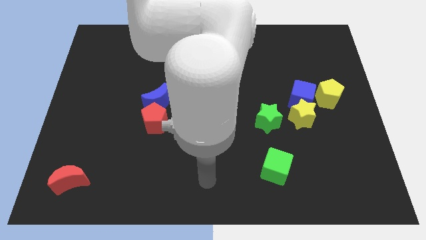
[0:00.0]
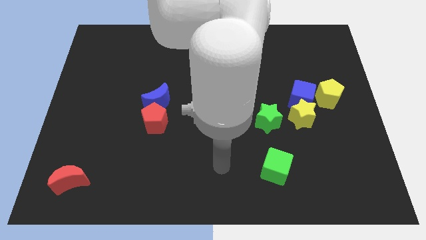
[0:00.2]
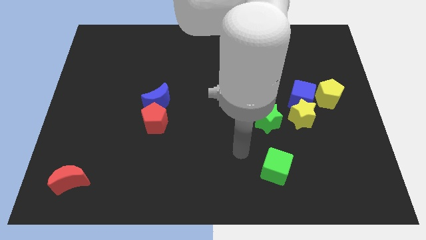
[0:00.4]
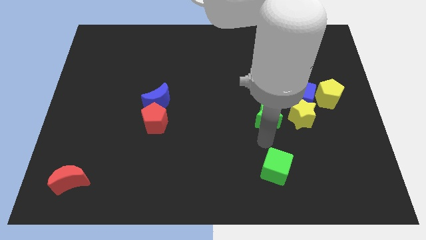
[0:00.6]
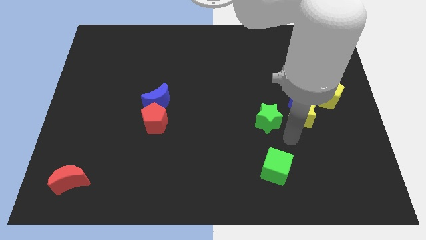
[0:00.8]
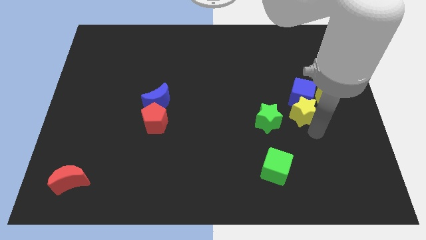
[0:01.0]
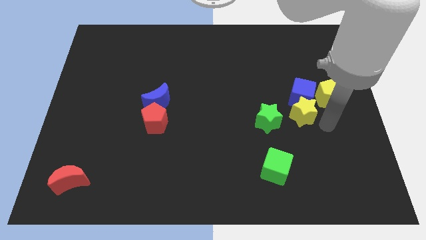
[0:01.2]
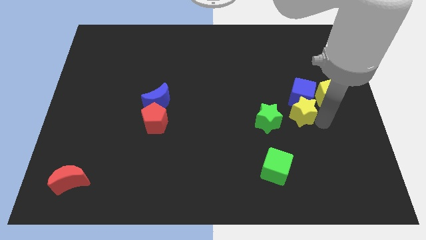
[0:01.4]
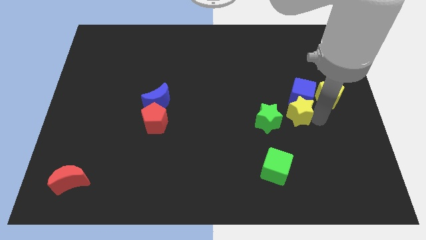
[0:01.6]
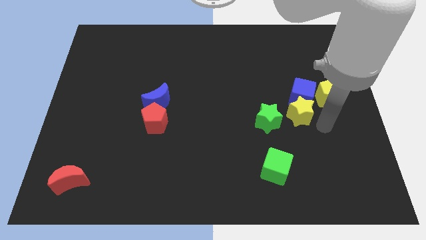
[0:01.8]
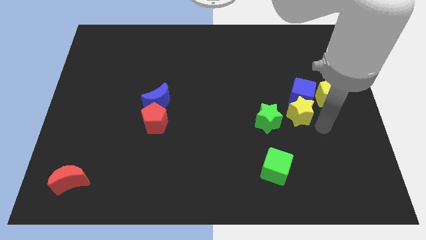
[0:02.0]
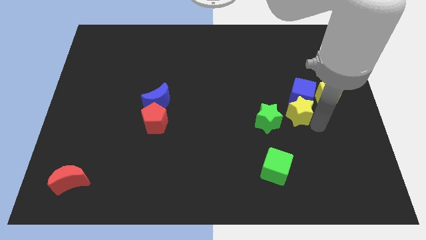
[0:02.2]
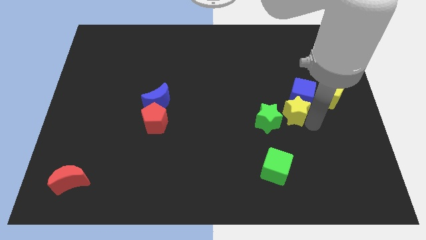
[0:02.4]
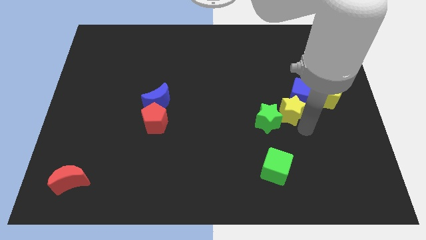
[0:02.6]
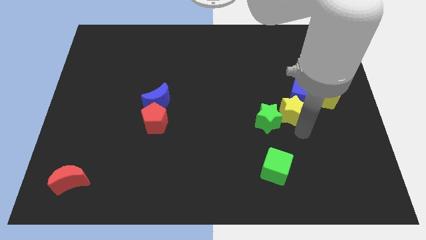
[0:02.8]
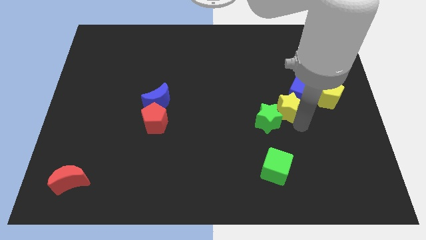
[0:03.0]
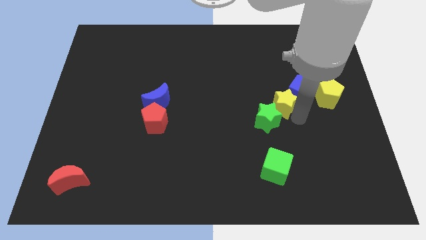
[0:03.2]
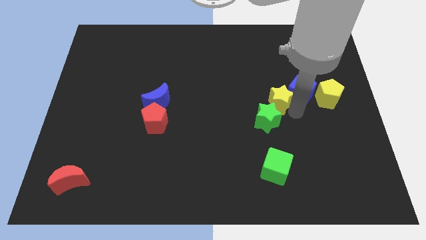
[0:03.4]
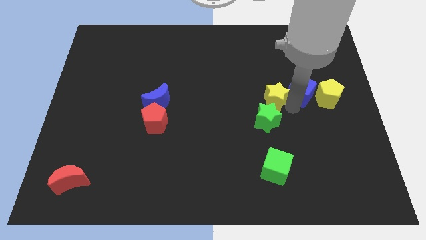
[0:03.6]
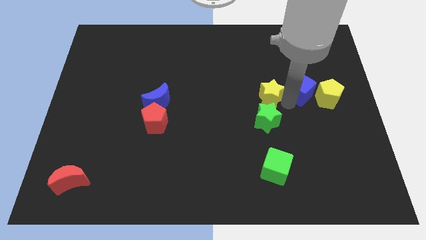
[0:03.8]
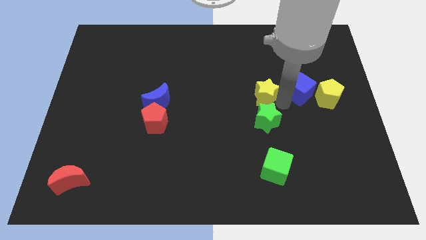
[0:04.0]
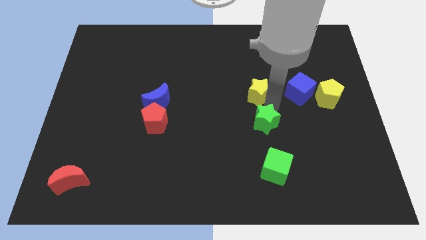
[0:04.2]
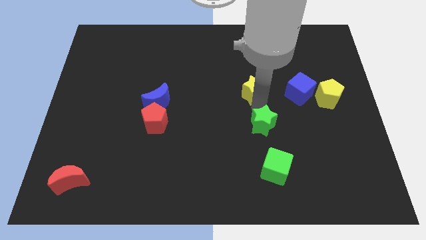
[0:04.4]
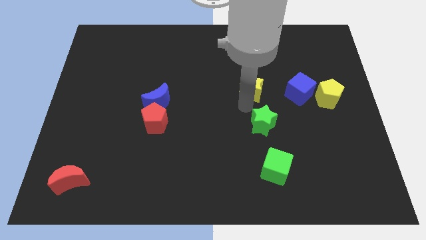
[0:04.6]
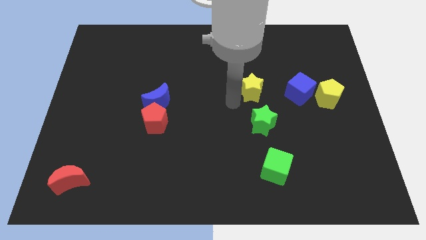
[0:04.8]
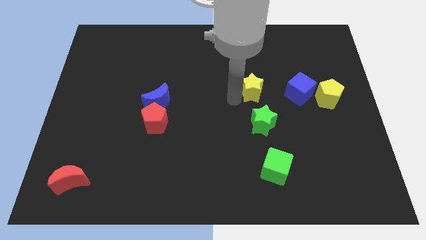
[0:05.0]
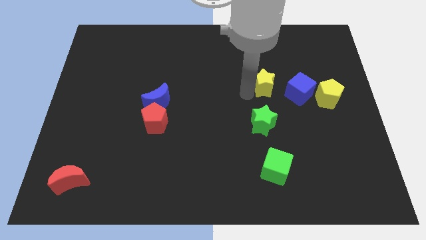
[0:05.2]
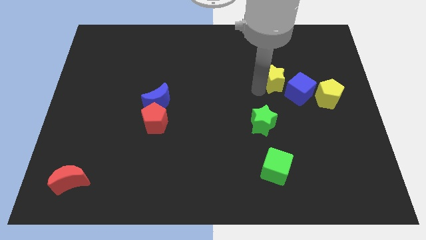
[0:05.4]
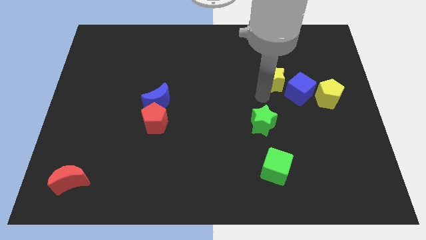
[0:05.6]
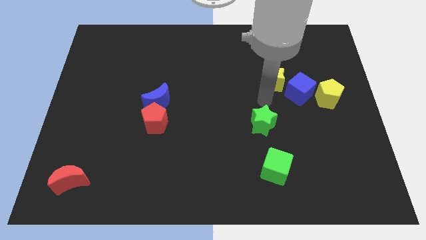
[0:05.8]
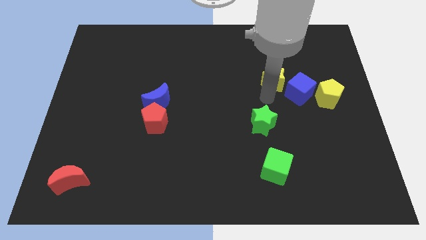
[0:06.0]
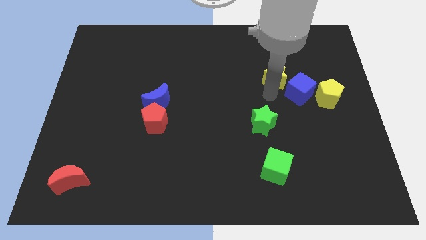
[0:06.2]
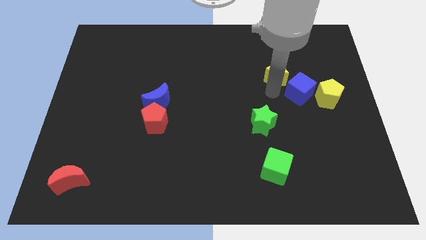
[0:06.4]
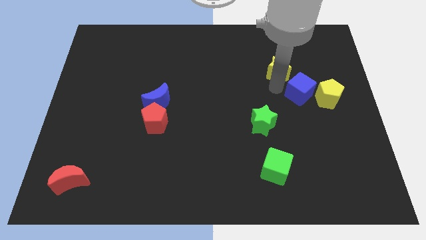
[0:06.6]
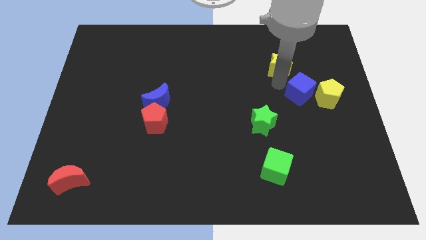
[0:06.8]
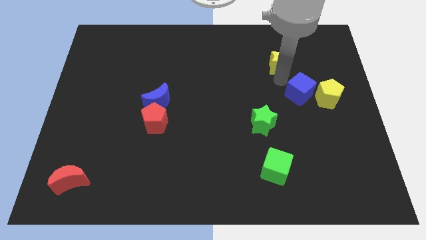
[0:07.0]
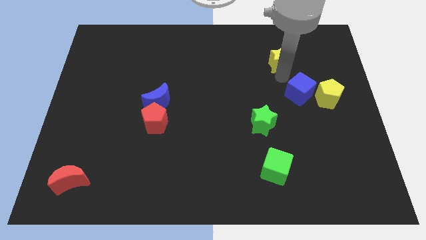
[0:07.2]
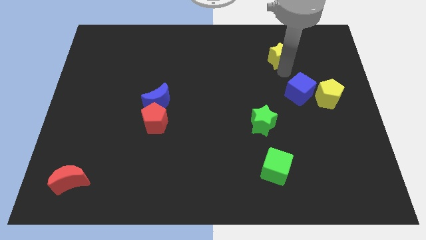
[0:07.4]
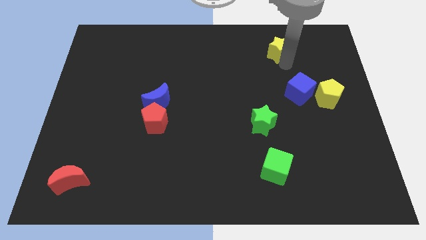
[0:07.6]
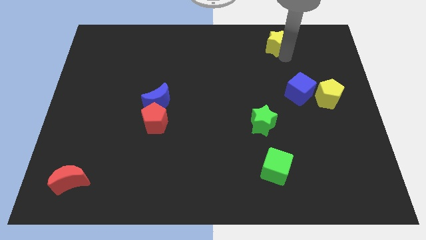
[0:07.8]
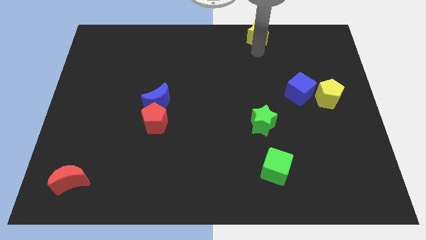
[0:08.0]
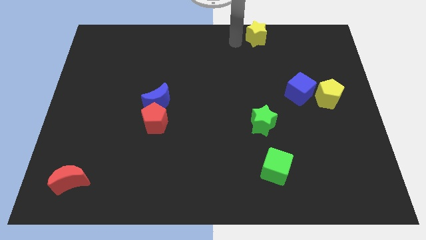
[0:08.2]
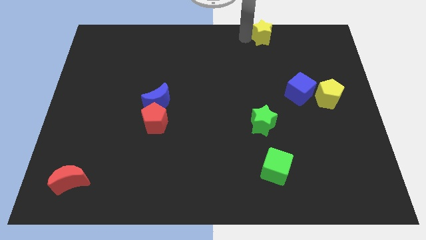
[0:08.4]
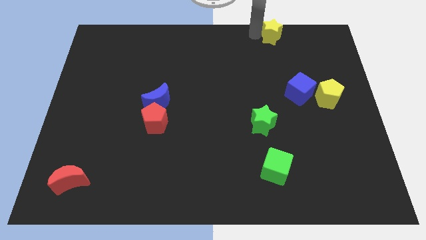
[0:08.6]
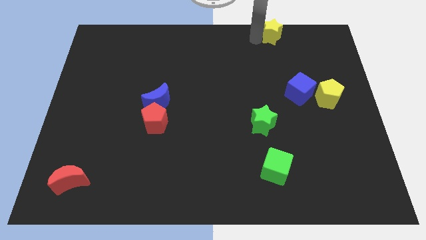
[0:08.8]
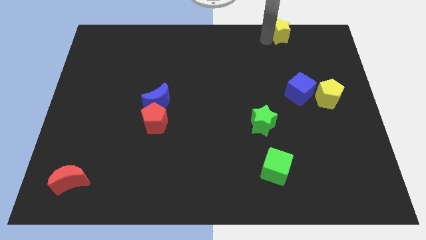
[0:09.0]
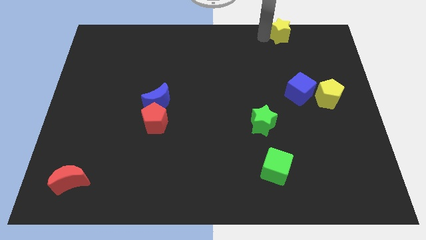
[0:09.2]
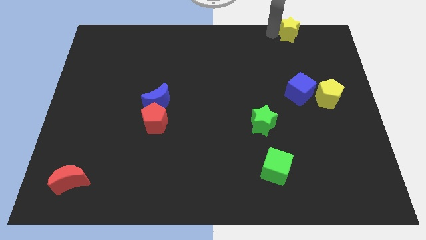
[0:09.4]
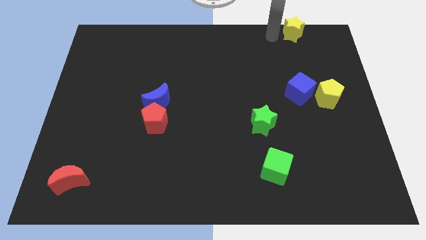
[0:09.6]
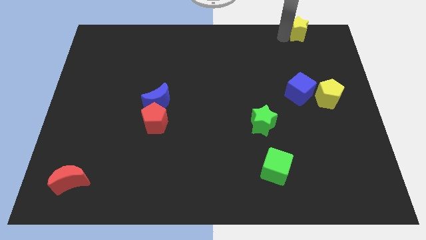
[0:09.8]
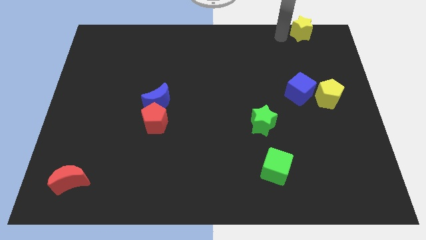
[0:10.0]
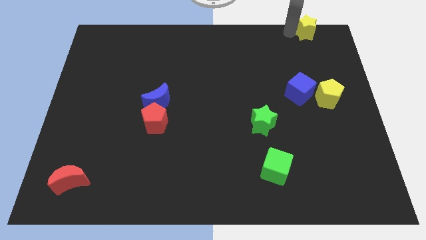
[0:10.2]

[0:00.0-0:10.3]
put the yellow star to the top right corner

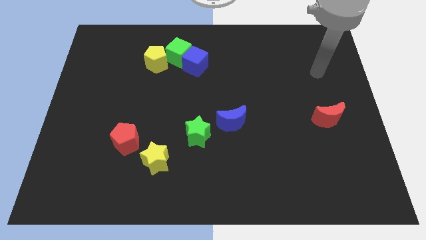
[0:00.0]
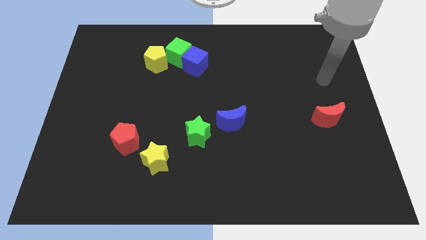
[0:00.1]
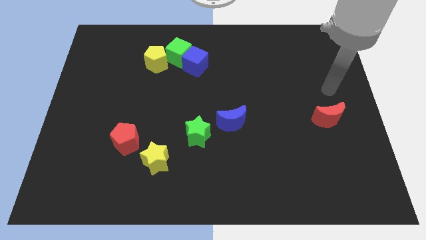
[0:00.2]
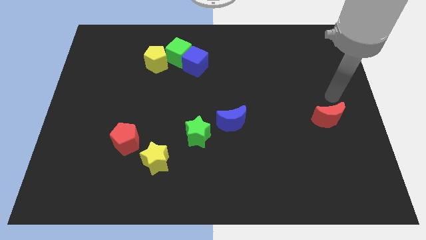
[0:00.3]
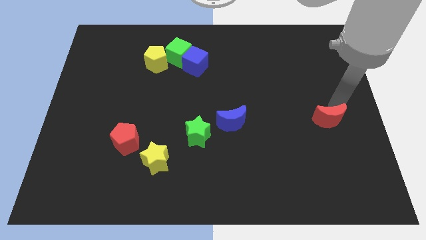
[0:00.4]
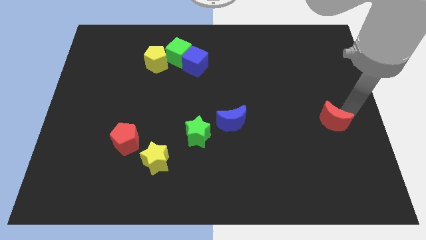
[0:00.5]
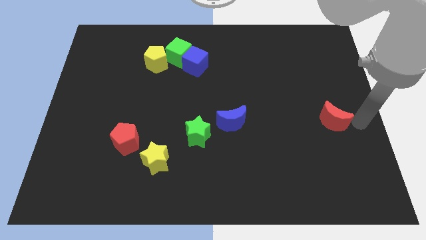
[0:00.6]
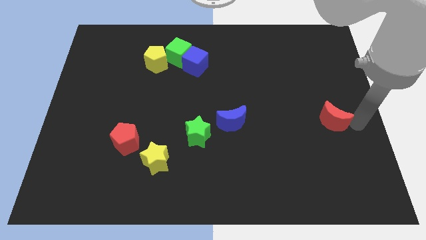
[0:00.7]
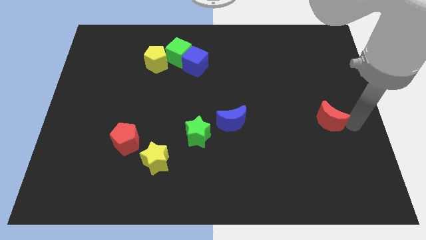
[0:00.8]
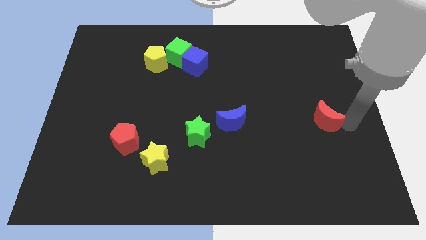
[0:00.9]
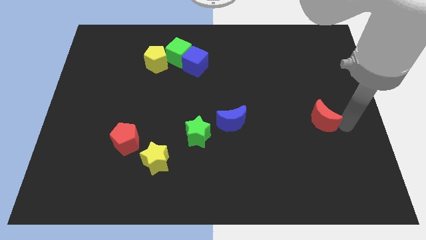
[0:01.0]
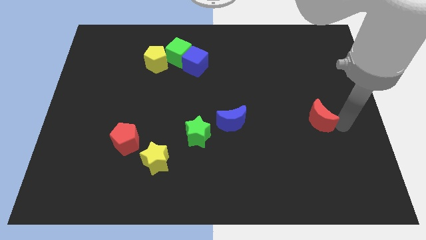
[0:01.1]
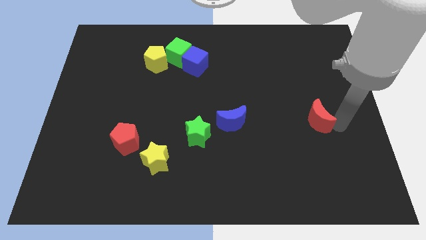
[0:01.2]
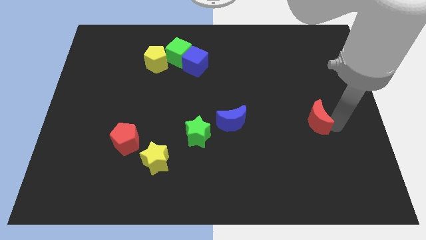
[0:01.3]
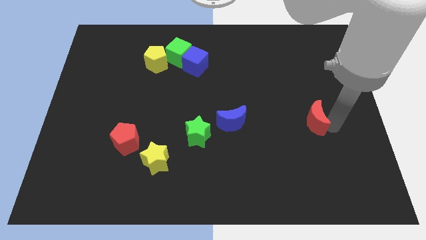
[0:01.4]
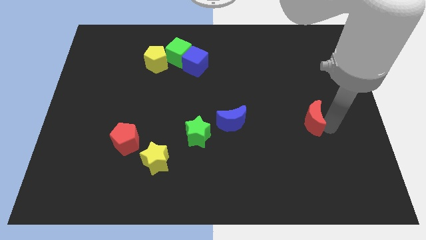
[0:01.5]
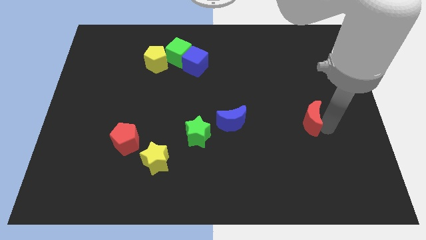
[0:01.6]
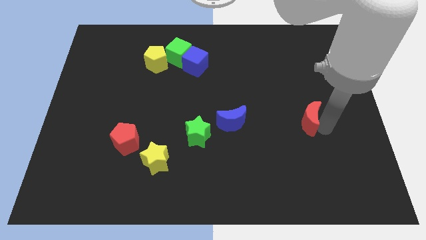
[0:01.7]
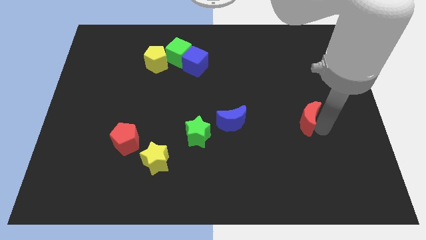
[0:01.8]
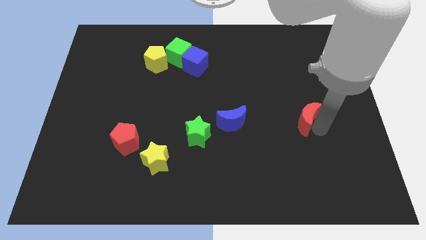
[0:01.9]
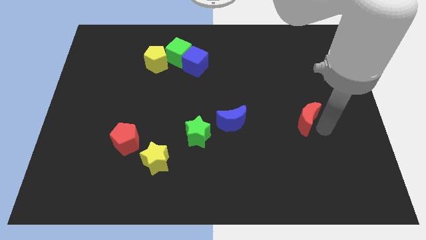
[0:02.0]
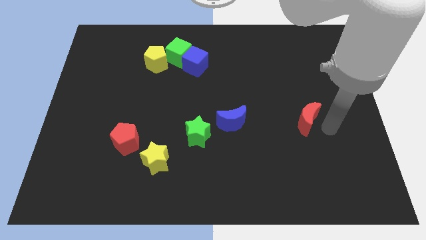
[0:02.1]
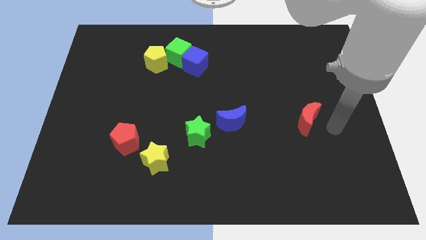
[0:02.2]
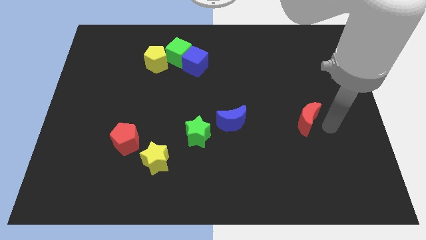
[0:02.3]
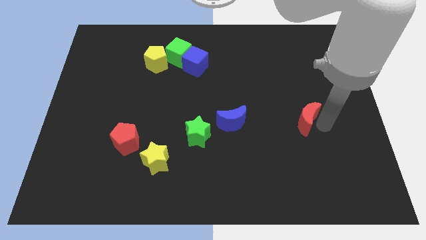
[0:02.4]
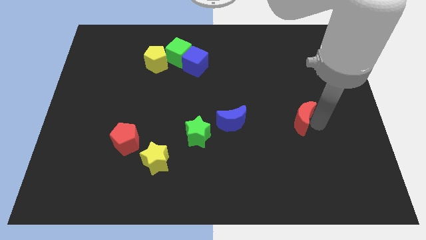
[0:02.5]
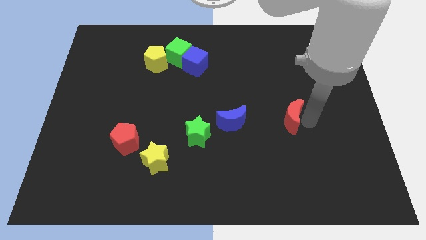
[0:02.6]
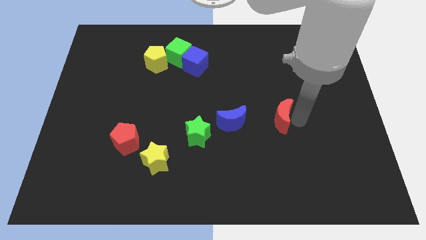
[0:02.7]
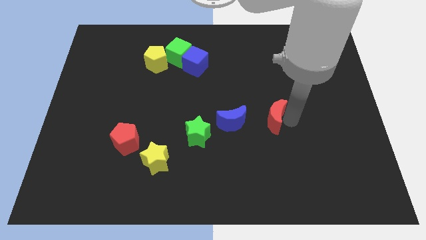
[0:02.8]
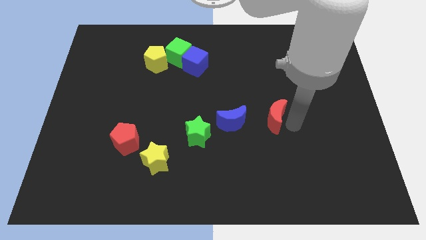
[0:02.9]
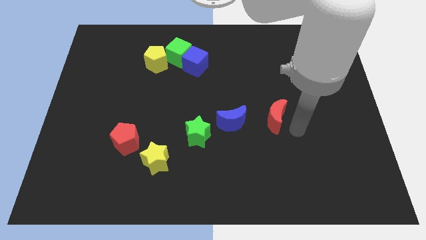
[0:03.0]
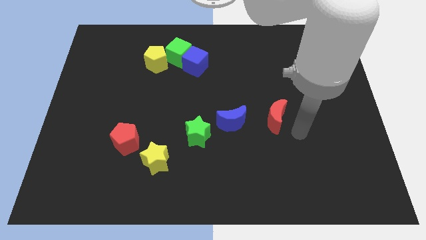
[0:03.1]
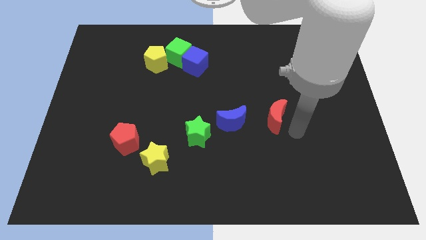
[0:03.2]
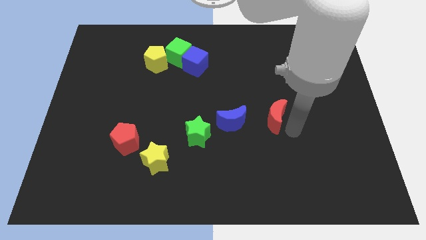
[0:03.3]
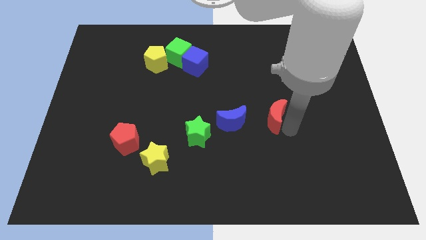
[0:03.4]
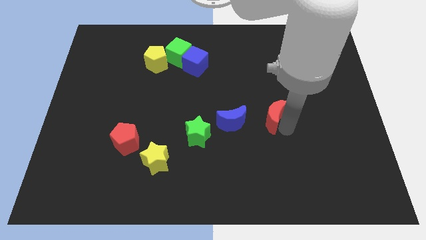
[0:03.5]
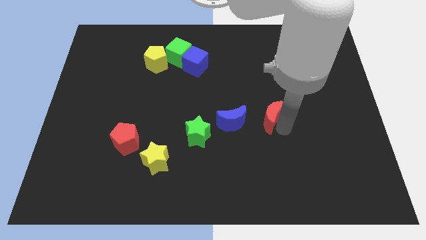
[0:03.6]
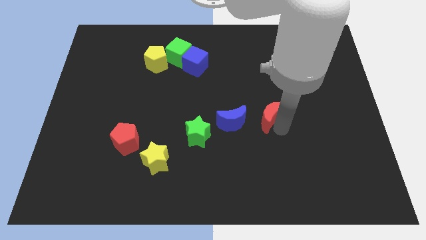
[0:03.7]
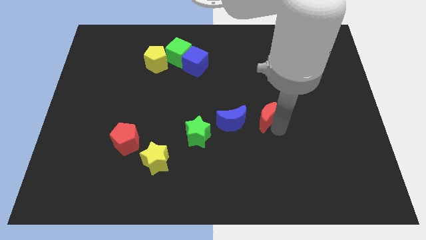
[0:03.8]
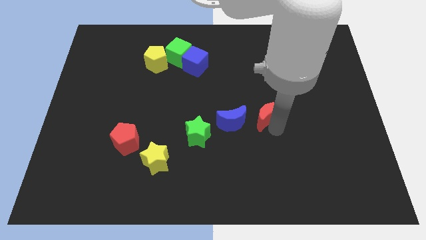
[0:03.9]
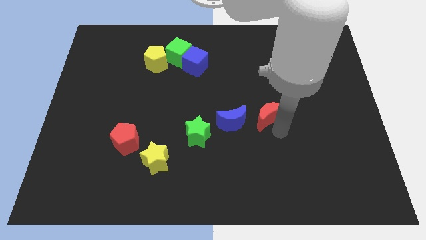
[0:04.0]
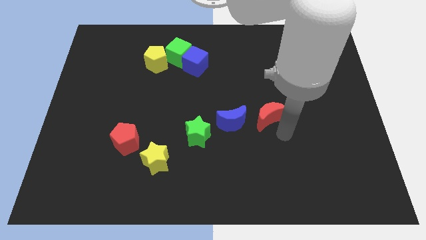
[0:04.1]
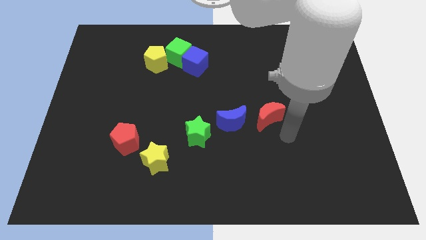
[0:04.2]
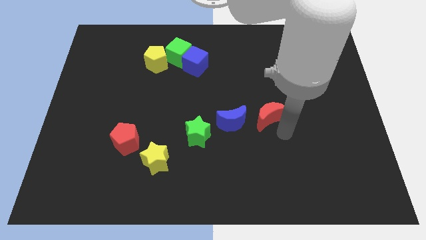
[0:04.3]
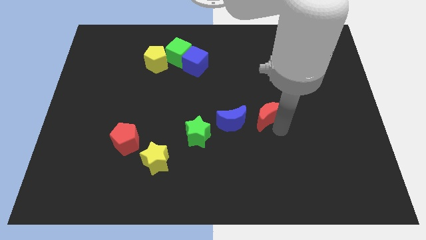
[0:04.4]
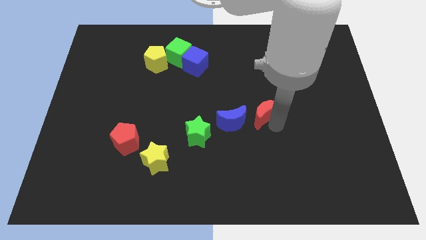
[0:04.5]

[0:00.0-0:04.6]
push the red moon to the middle
